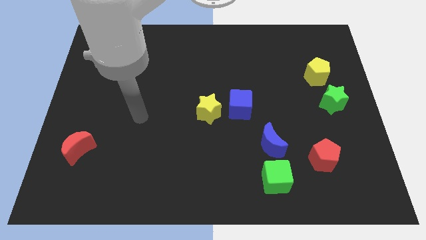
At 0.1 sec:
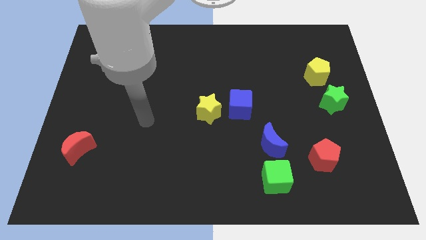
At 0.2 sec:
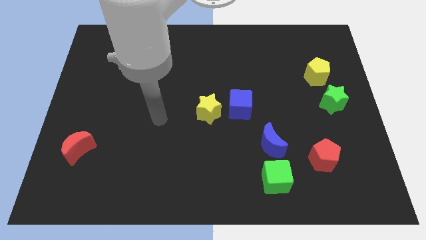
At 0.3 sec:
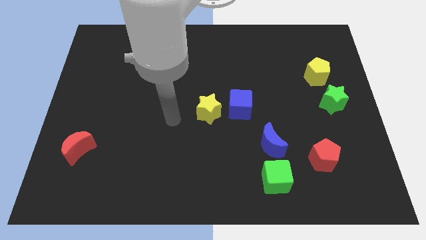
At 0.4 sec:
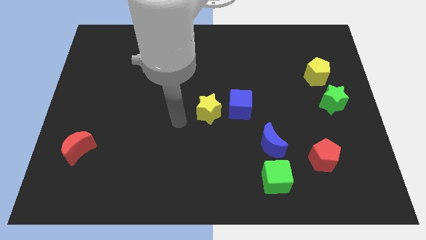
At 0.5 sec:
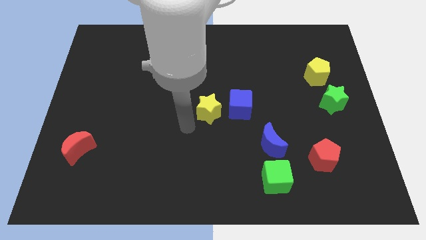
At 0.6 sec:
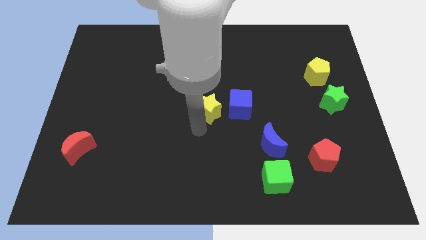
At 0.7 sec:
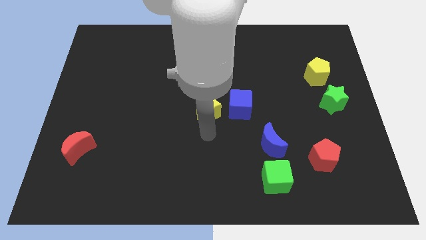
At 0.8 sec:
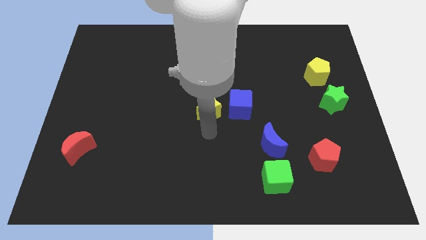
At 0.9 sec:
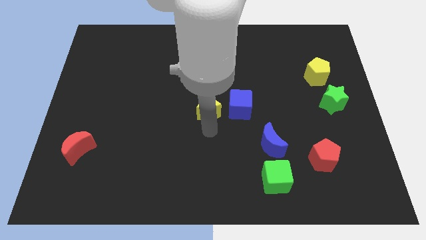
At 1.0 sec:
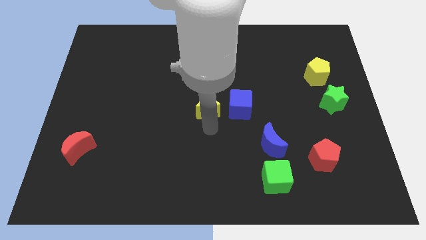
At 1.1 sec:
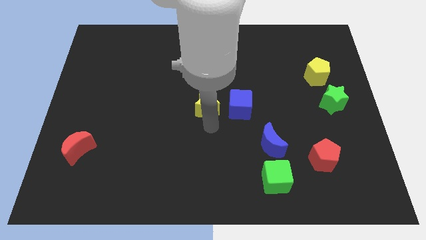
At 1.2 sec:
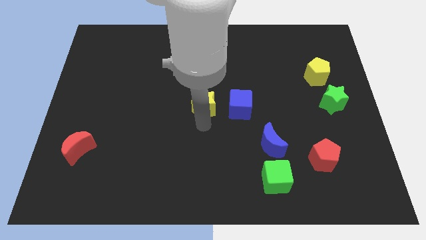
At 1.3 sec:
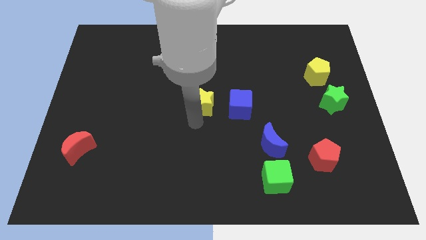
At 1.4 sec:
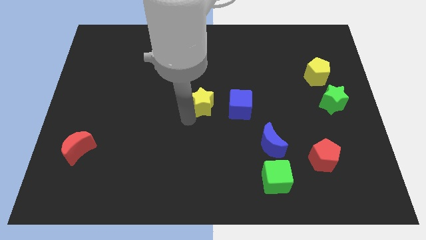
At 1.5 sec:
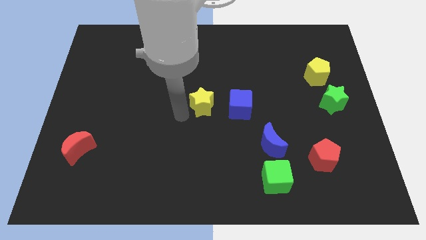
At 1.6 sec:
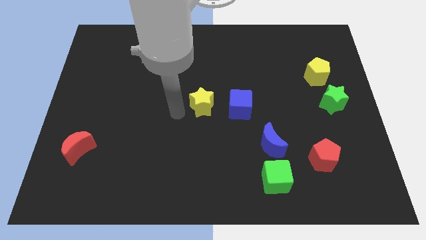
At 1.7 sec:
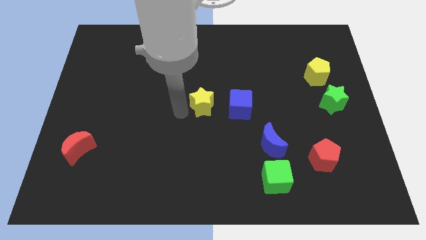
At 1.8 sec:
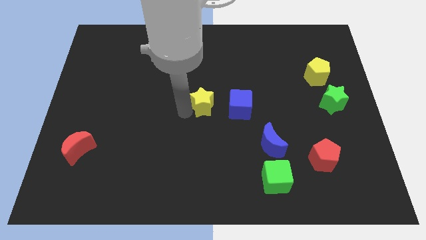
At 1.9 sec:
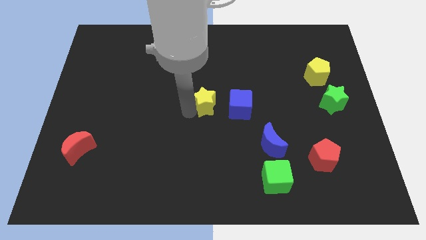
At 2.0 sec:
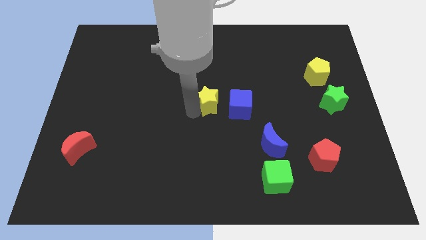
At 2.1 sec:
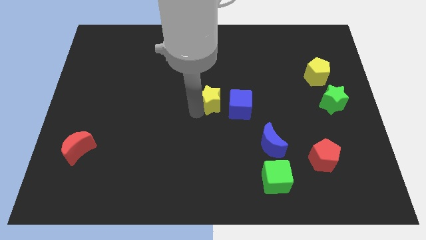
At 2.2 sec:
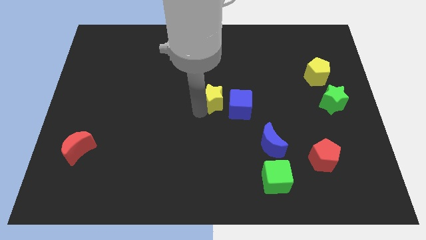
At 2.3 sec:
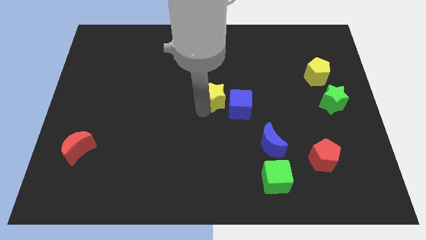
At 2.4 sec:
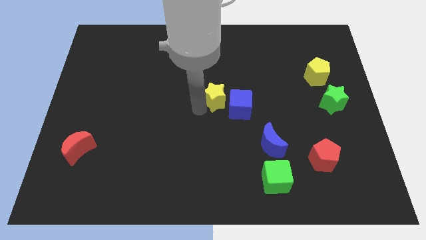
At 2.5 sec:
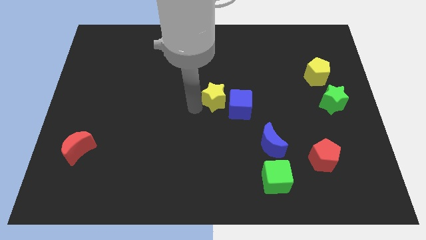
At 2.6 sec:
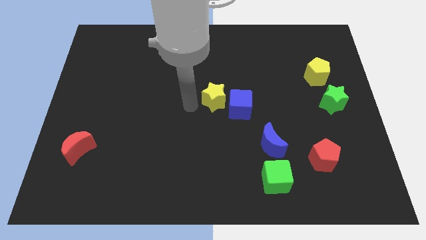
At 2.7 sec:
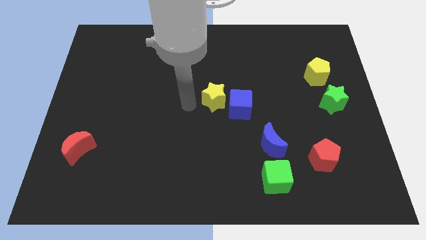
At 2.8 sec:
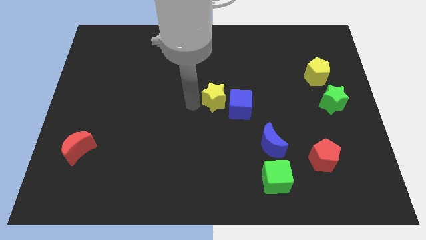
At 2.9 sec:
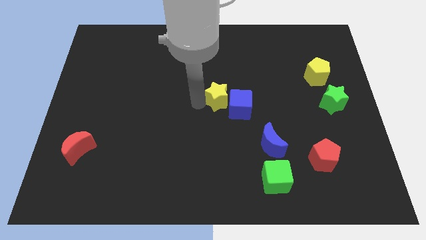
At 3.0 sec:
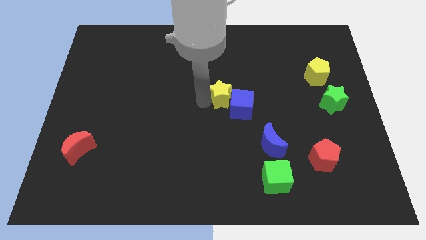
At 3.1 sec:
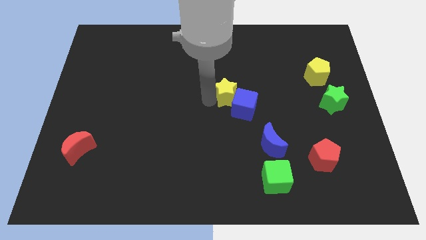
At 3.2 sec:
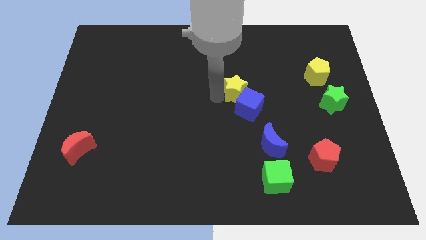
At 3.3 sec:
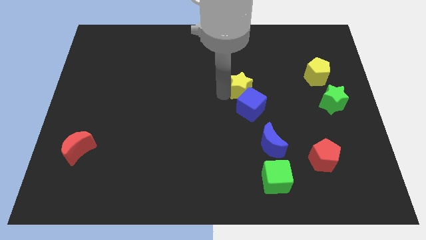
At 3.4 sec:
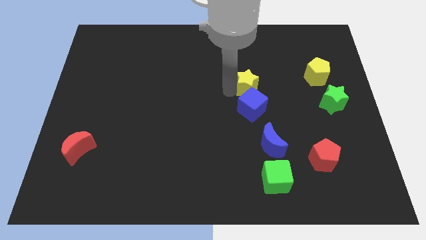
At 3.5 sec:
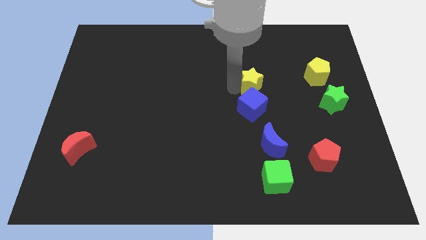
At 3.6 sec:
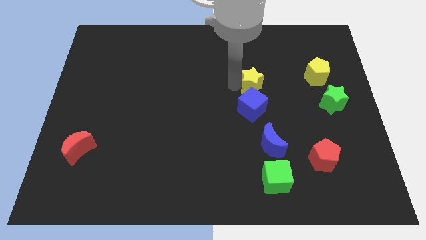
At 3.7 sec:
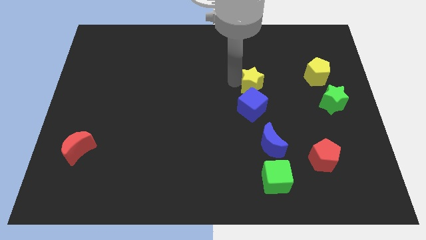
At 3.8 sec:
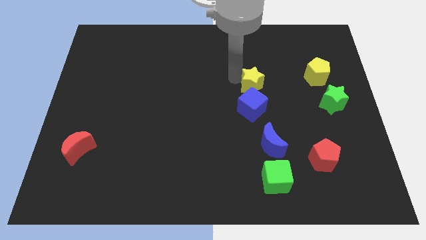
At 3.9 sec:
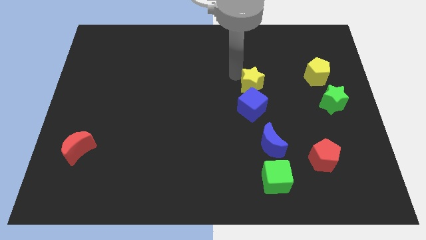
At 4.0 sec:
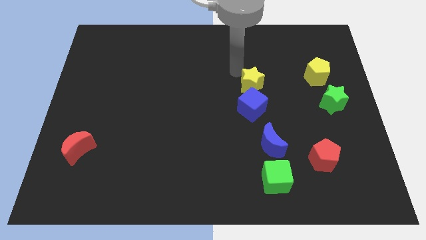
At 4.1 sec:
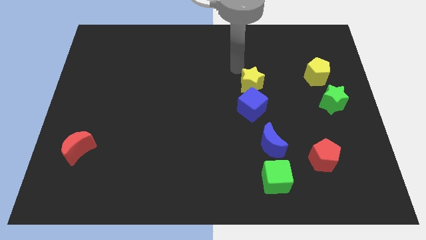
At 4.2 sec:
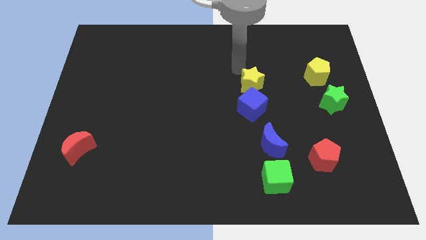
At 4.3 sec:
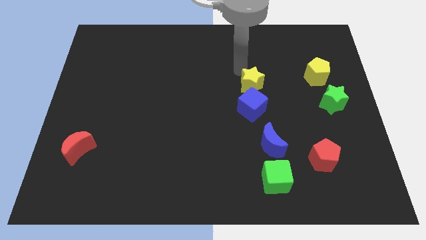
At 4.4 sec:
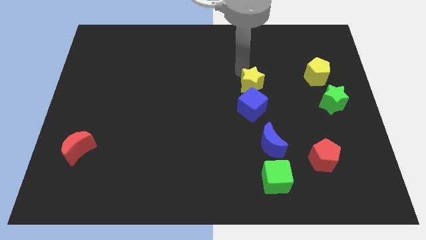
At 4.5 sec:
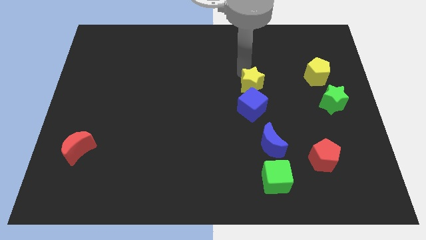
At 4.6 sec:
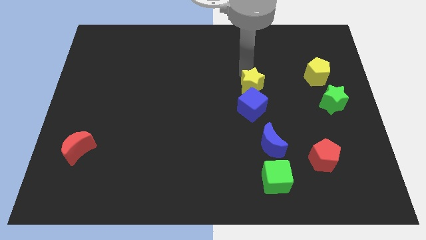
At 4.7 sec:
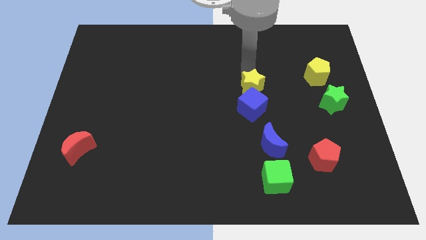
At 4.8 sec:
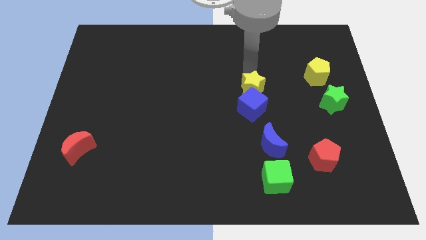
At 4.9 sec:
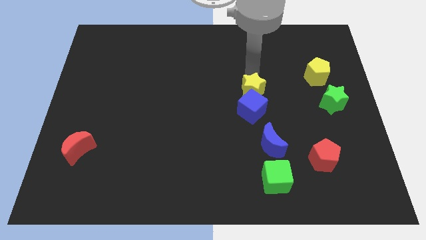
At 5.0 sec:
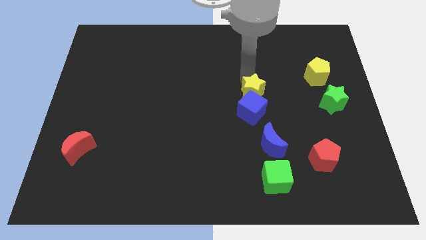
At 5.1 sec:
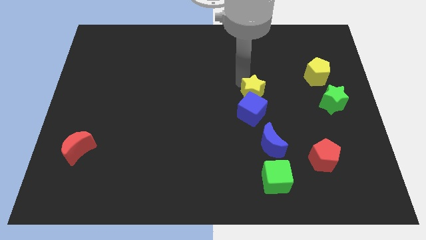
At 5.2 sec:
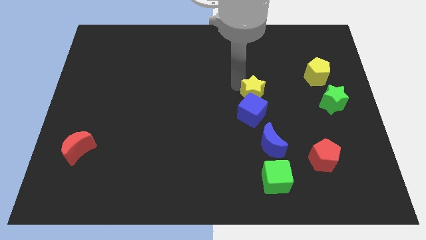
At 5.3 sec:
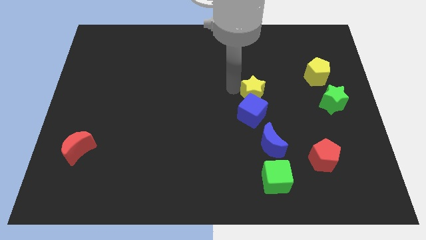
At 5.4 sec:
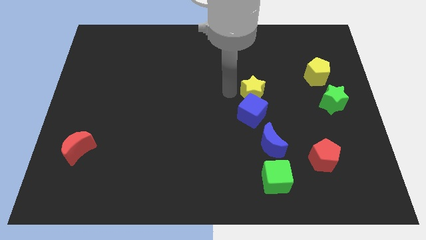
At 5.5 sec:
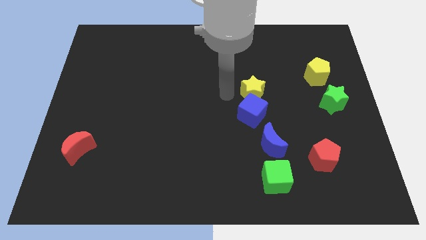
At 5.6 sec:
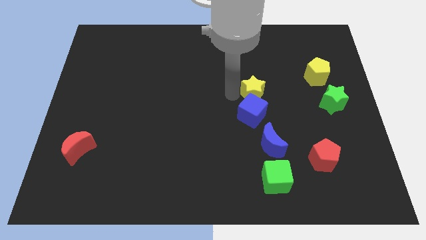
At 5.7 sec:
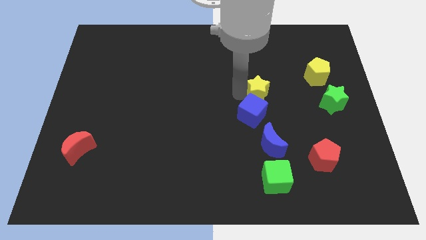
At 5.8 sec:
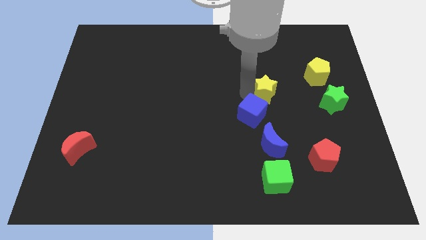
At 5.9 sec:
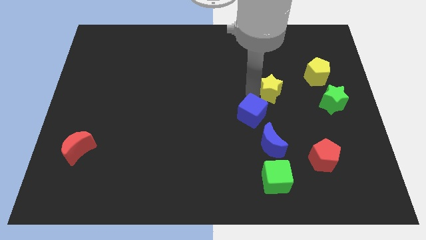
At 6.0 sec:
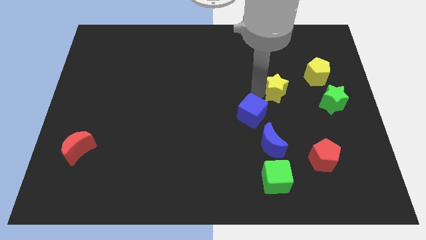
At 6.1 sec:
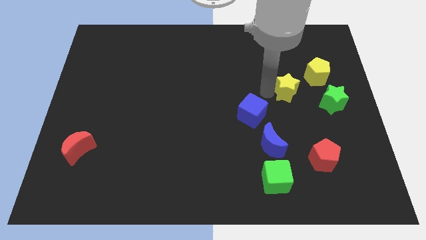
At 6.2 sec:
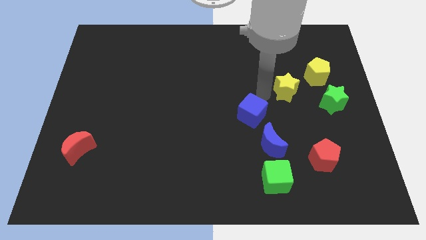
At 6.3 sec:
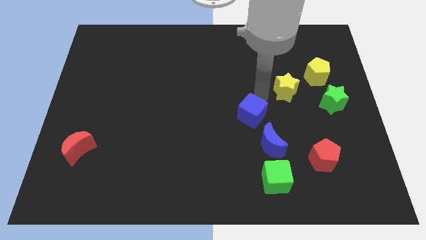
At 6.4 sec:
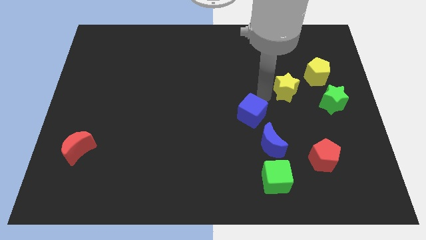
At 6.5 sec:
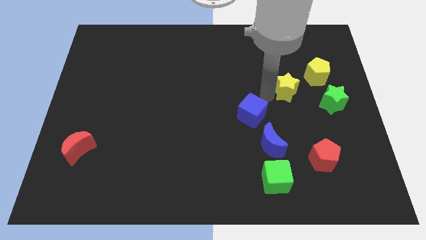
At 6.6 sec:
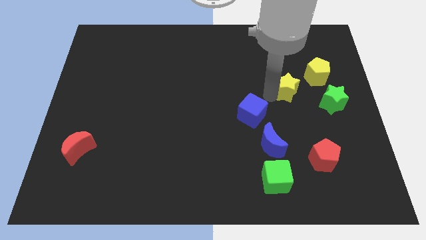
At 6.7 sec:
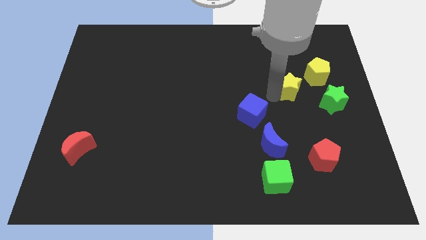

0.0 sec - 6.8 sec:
slide the yellow star to the top left of the green star

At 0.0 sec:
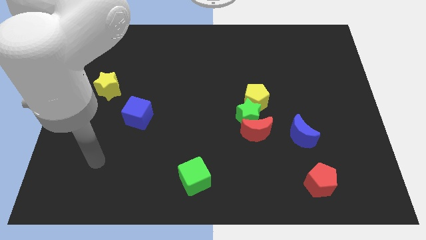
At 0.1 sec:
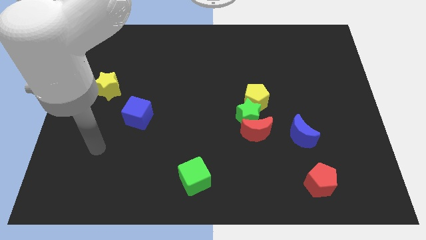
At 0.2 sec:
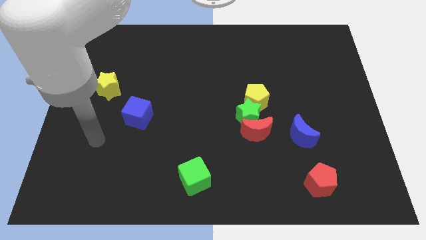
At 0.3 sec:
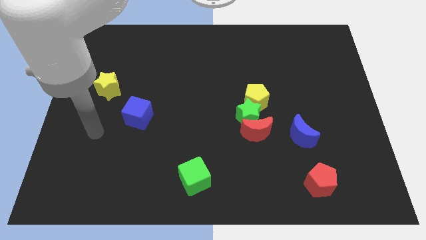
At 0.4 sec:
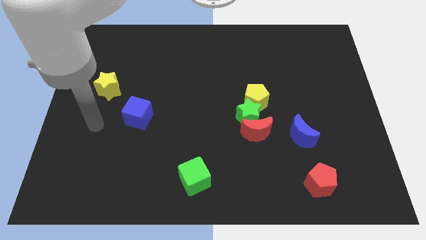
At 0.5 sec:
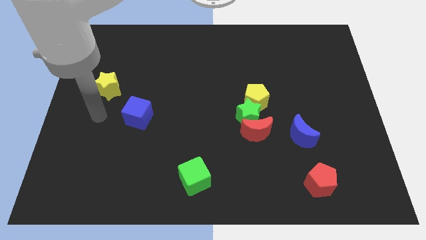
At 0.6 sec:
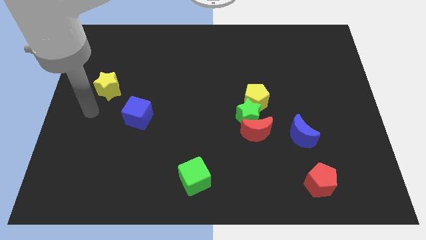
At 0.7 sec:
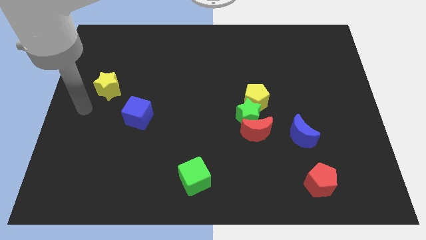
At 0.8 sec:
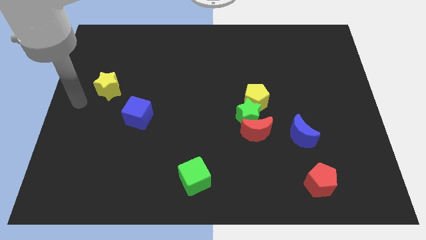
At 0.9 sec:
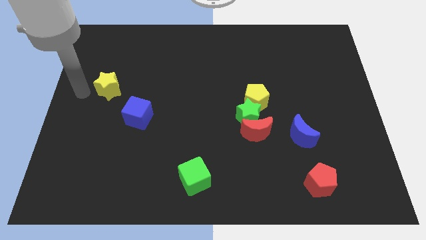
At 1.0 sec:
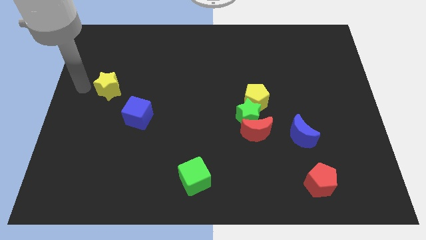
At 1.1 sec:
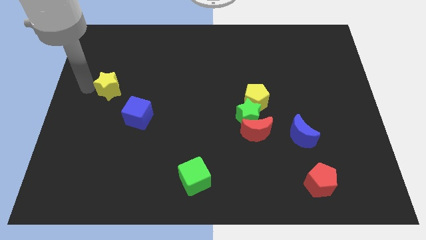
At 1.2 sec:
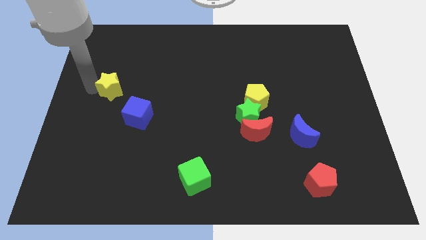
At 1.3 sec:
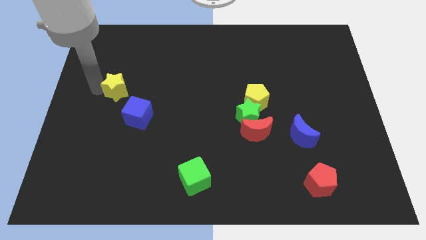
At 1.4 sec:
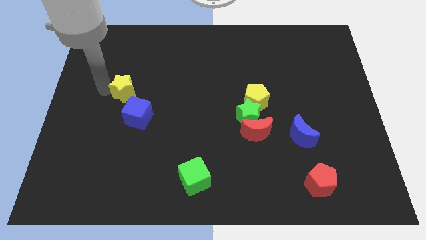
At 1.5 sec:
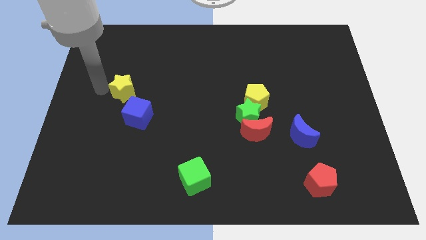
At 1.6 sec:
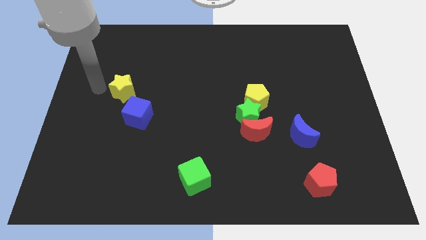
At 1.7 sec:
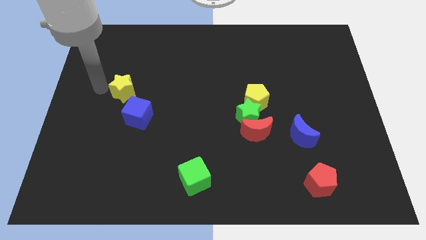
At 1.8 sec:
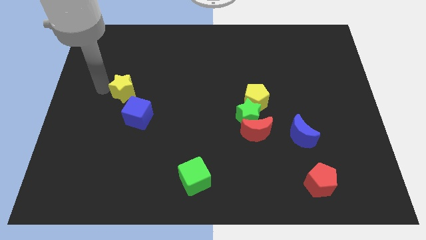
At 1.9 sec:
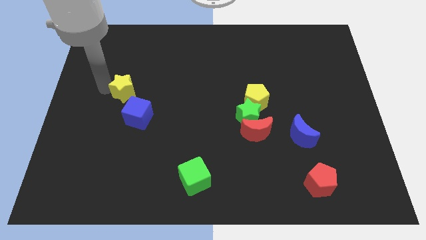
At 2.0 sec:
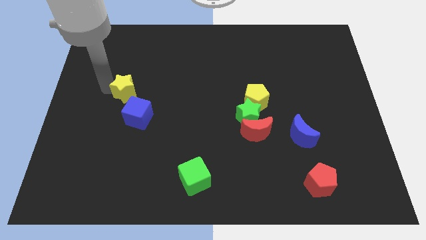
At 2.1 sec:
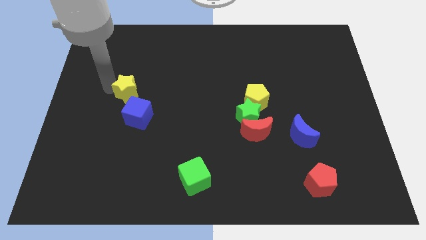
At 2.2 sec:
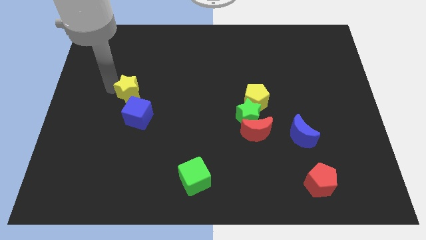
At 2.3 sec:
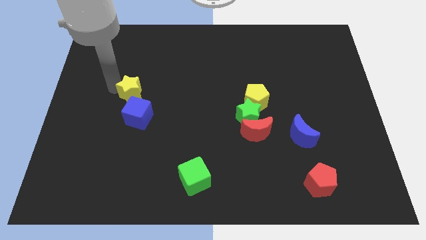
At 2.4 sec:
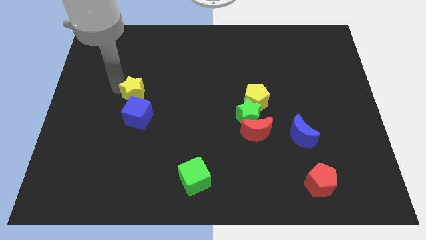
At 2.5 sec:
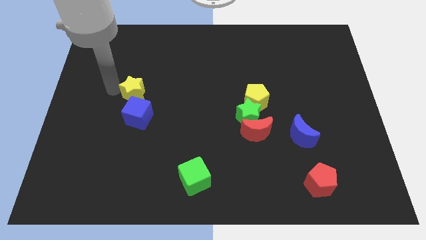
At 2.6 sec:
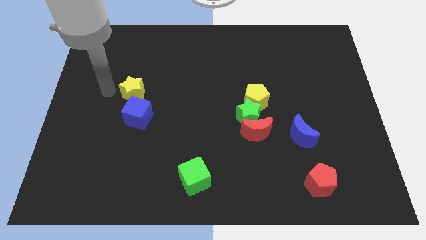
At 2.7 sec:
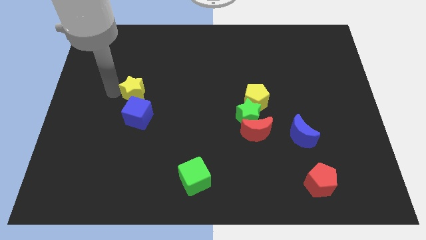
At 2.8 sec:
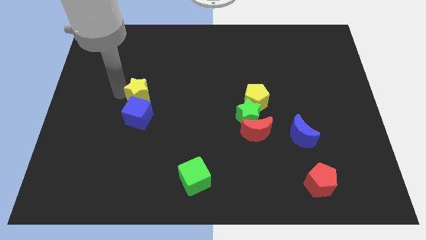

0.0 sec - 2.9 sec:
slide the yellow star diagonally up and to the right of the blue cube
